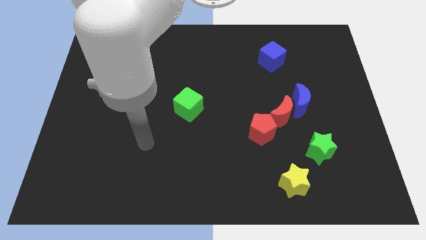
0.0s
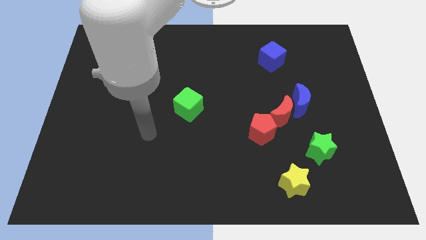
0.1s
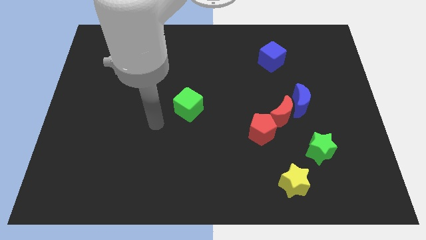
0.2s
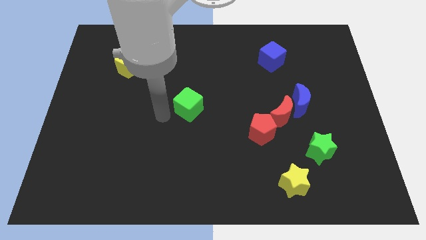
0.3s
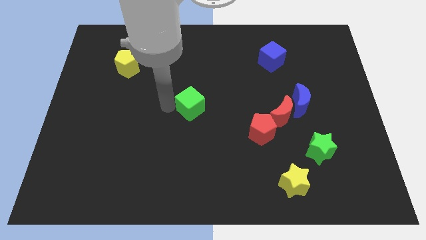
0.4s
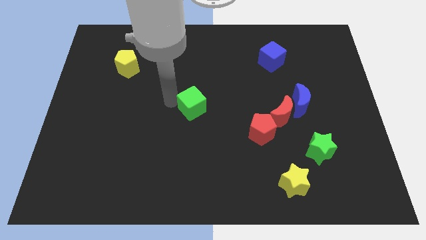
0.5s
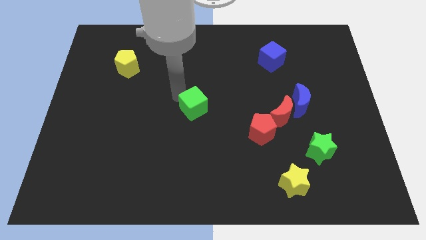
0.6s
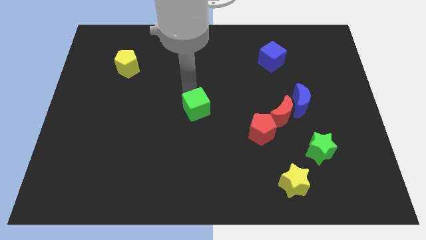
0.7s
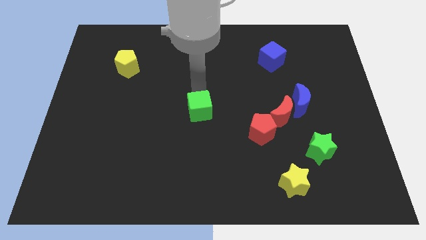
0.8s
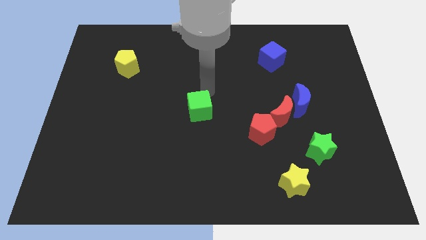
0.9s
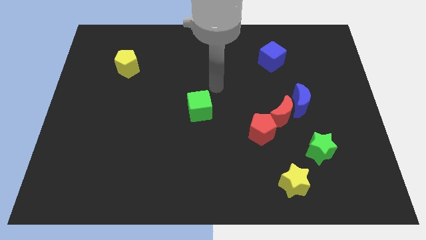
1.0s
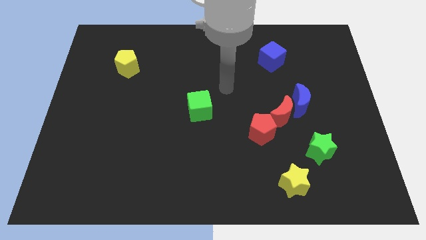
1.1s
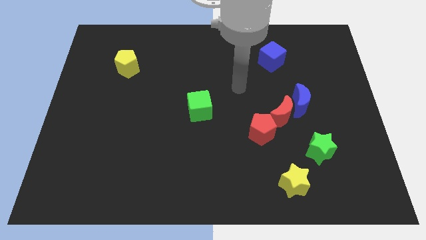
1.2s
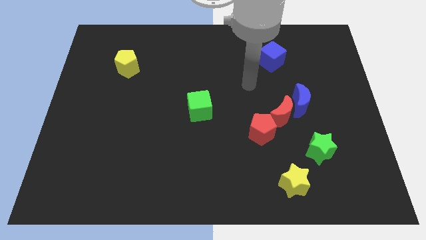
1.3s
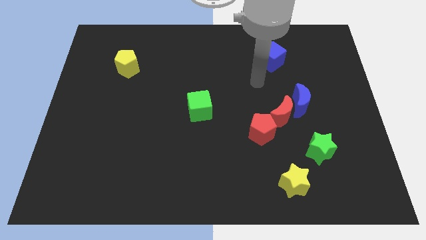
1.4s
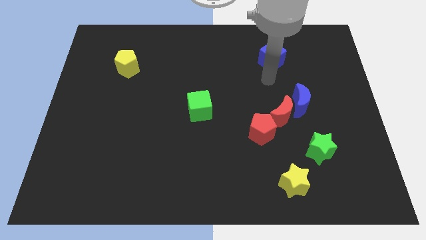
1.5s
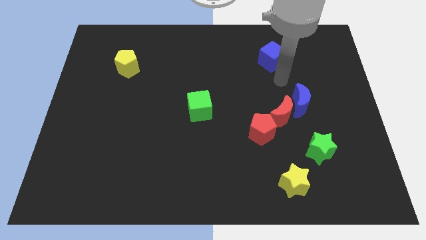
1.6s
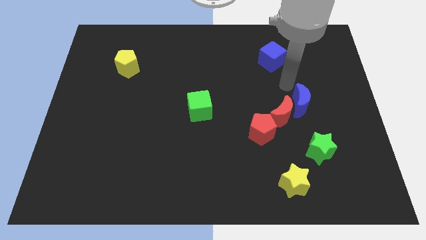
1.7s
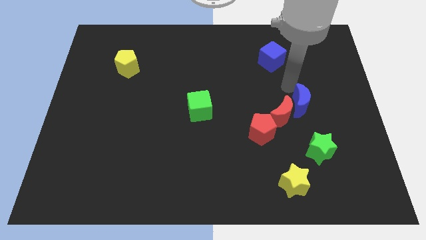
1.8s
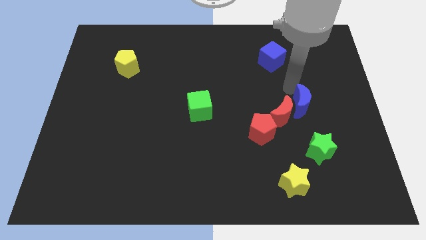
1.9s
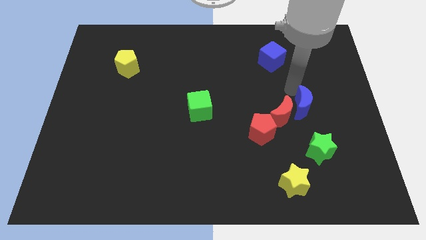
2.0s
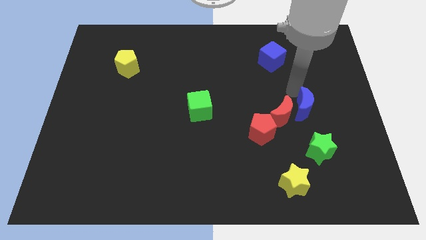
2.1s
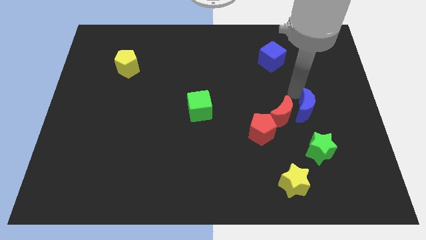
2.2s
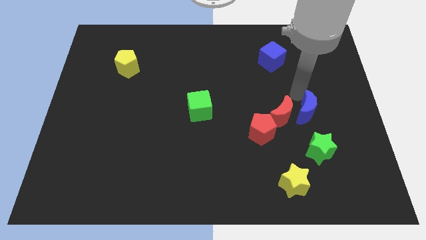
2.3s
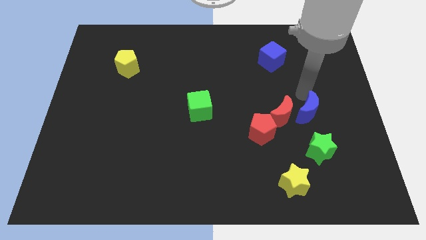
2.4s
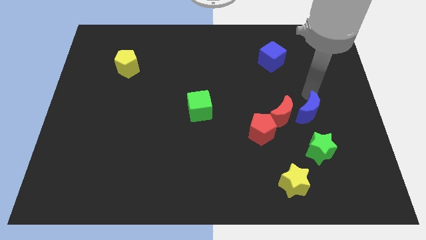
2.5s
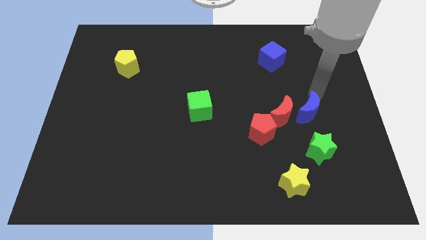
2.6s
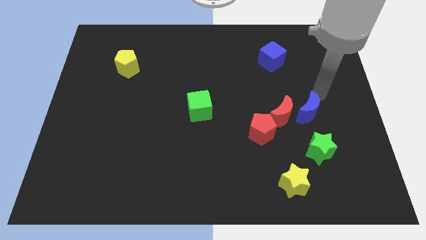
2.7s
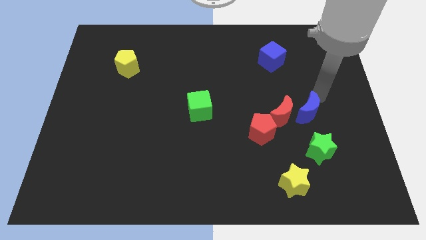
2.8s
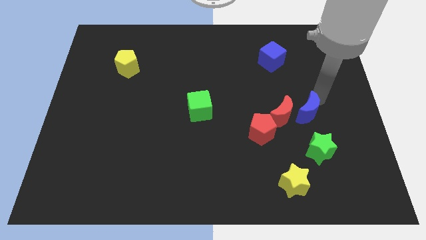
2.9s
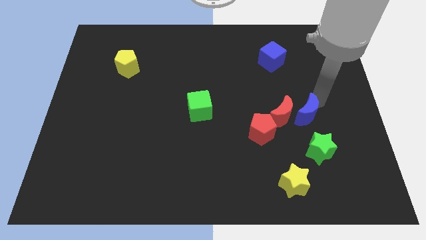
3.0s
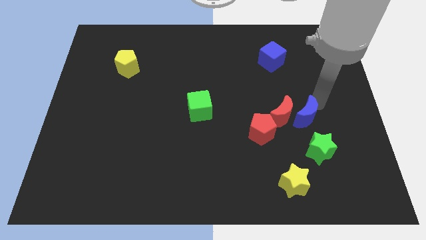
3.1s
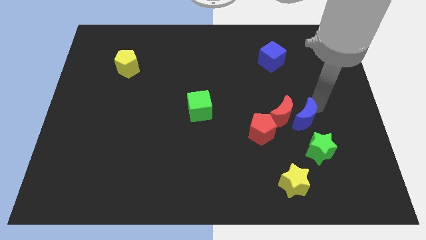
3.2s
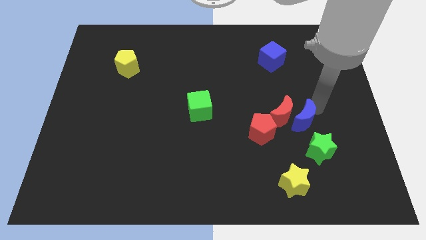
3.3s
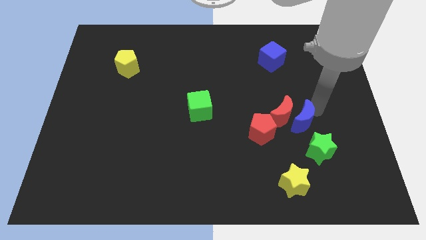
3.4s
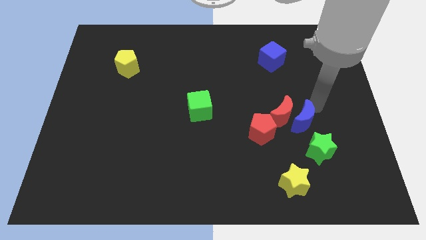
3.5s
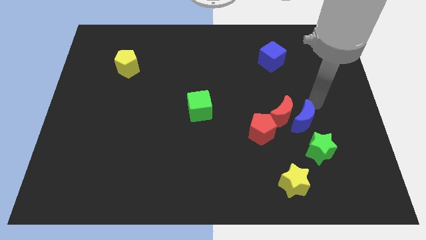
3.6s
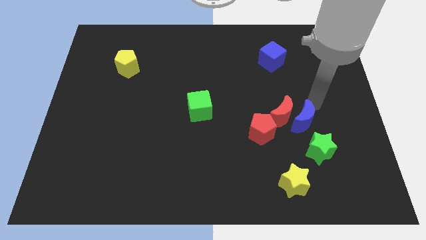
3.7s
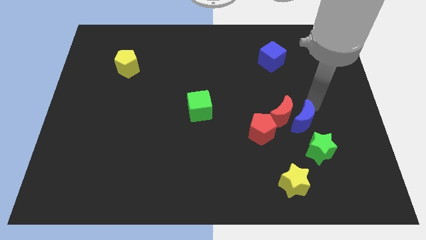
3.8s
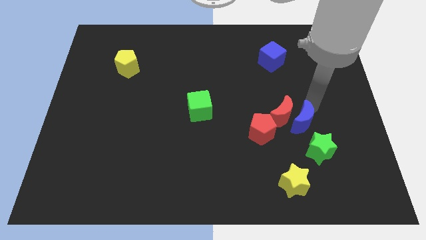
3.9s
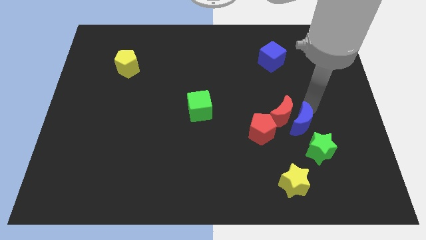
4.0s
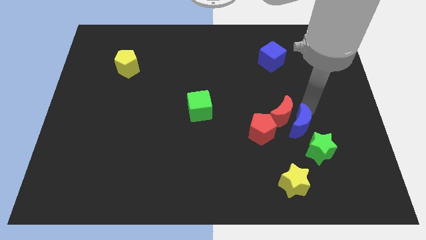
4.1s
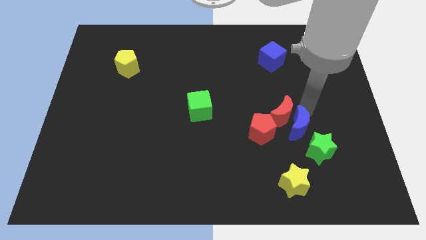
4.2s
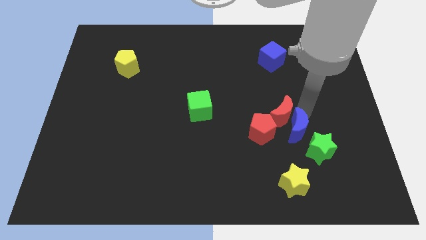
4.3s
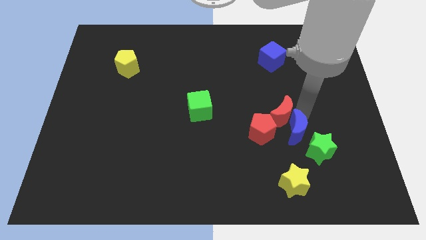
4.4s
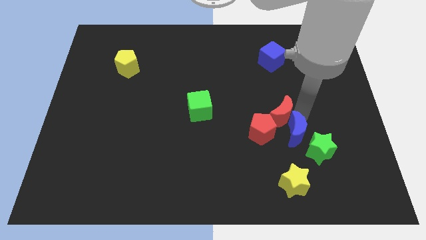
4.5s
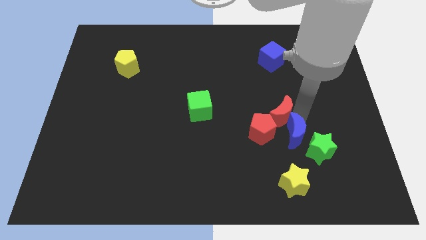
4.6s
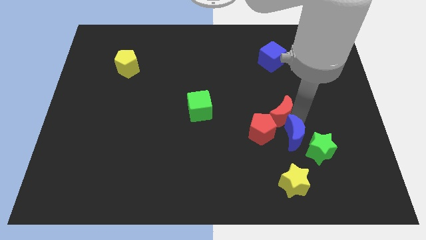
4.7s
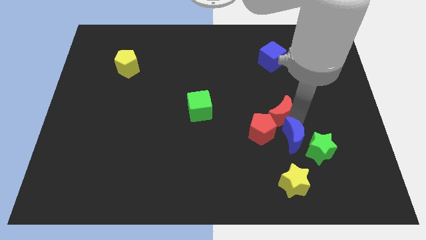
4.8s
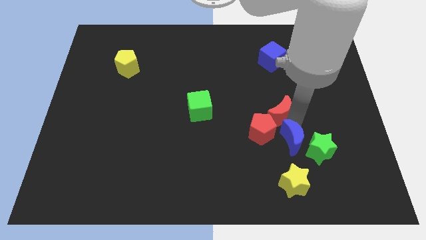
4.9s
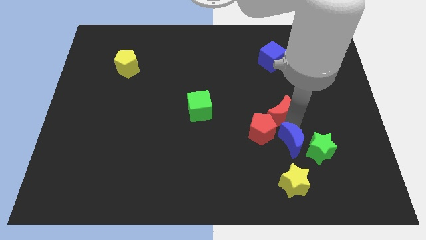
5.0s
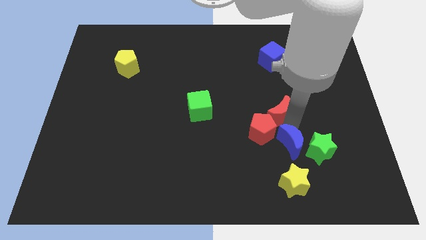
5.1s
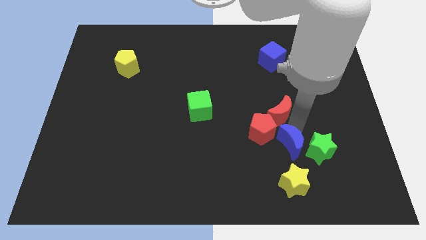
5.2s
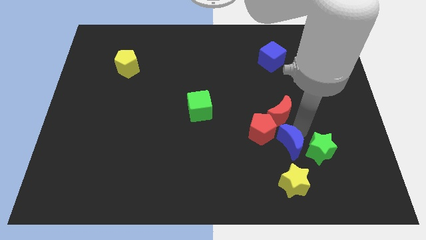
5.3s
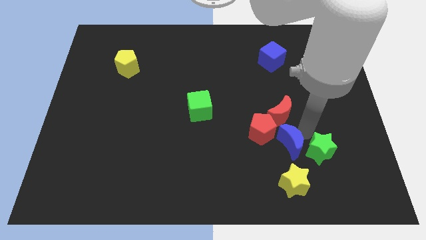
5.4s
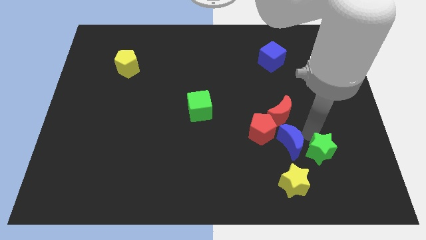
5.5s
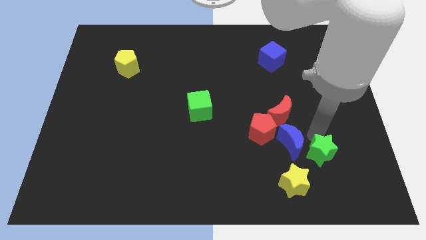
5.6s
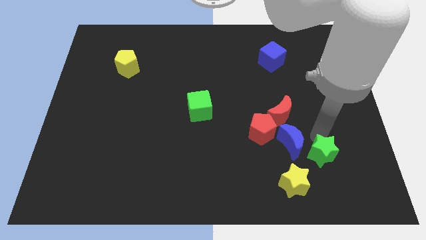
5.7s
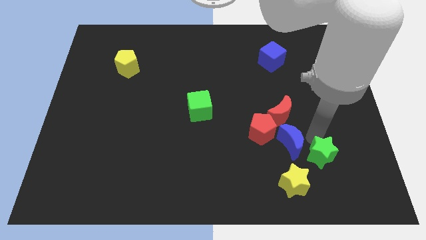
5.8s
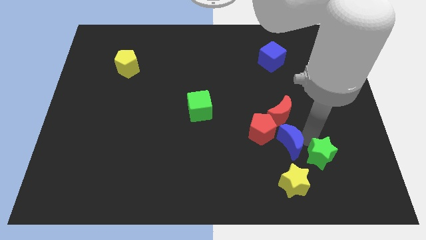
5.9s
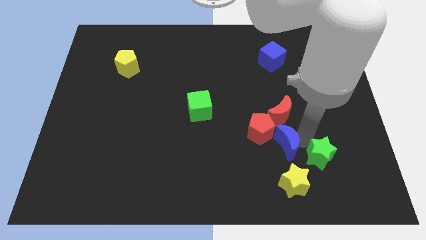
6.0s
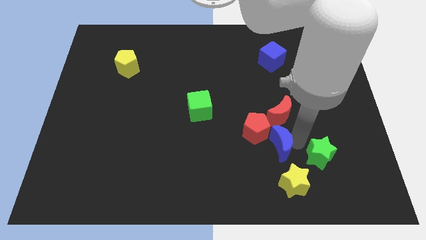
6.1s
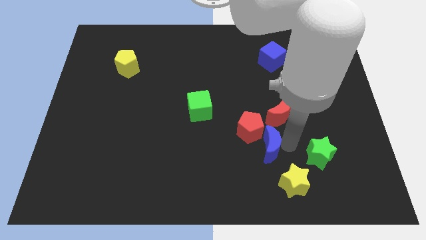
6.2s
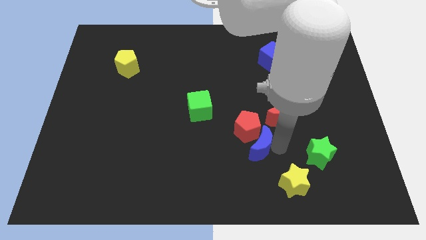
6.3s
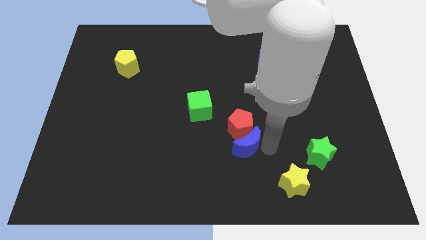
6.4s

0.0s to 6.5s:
slide the blue moon diagonally down and to the left of the red pentagon
